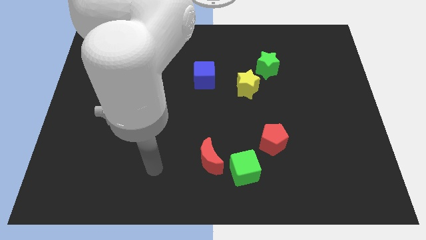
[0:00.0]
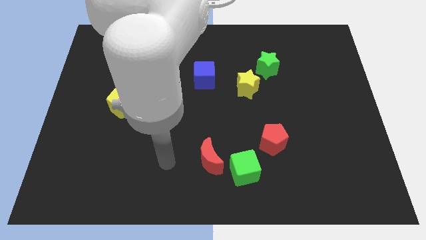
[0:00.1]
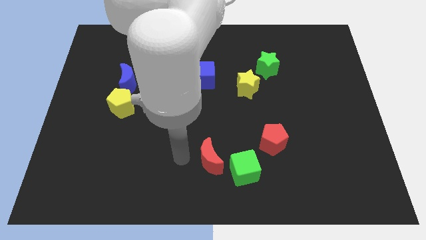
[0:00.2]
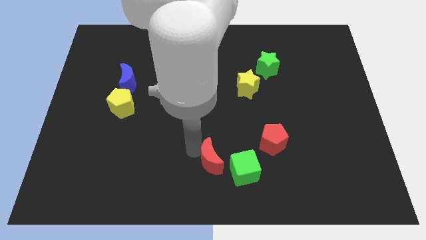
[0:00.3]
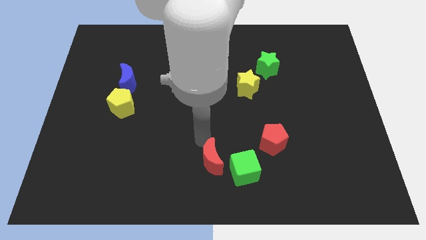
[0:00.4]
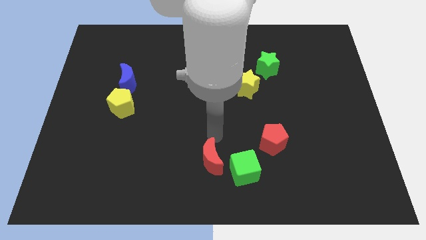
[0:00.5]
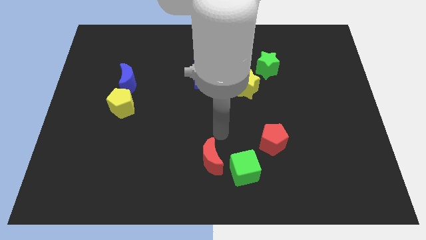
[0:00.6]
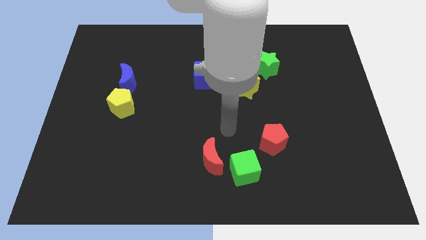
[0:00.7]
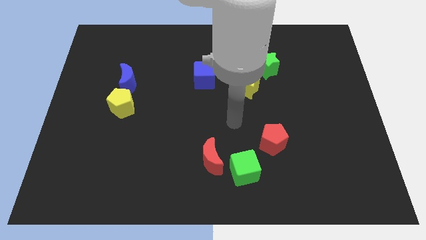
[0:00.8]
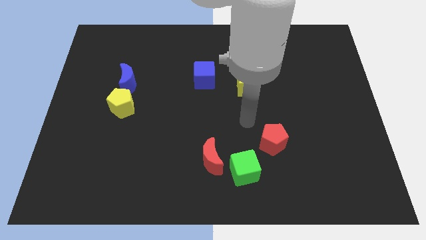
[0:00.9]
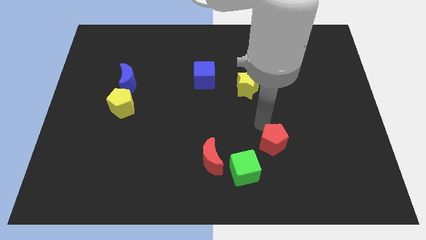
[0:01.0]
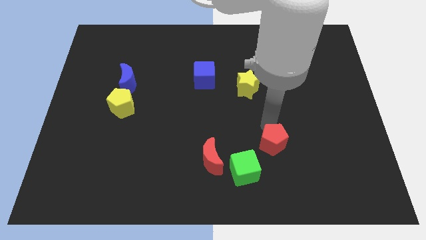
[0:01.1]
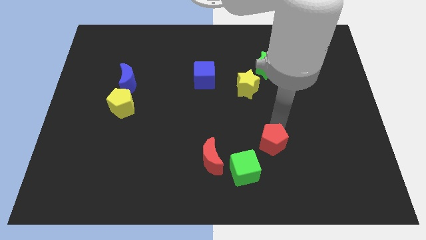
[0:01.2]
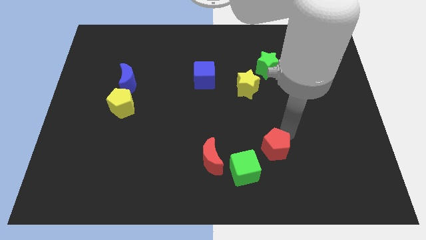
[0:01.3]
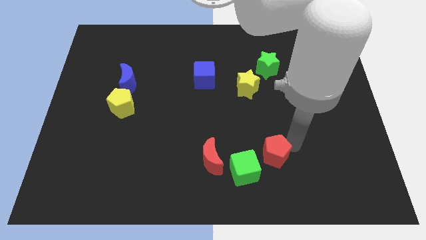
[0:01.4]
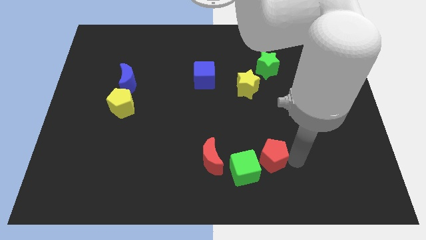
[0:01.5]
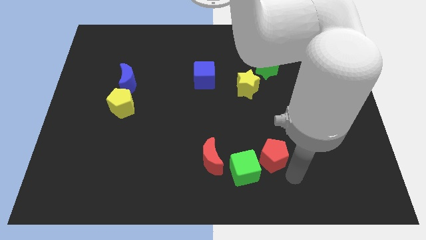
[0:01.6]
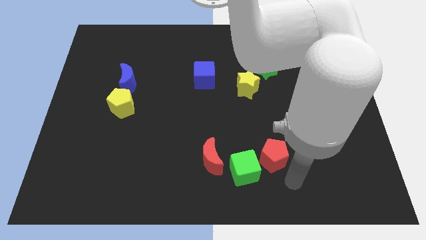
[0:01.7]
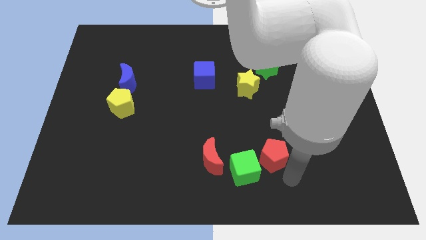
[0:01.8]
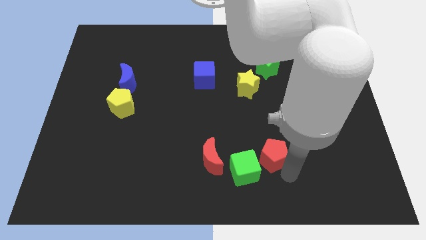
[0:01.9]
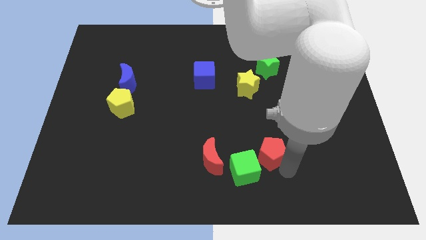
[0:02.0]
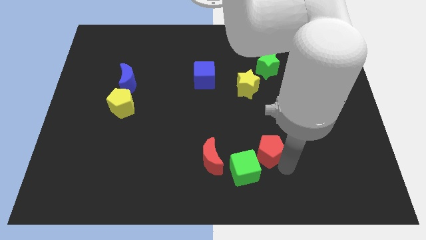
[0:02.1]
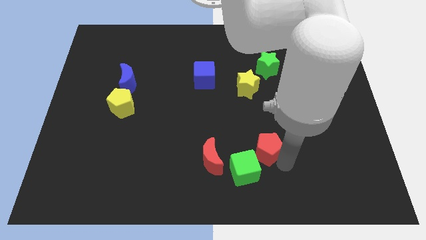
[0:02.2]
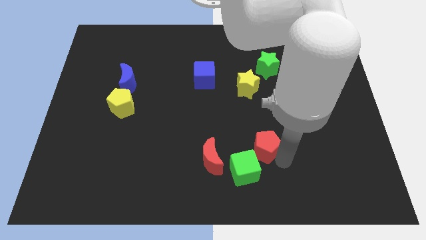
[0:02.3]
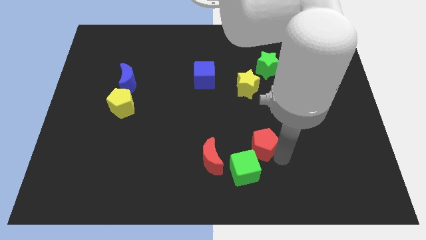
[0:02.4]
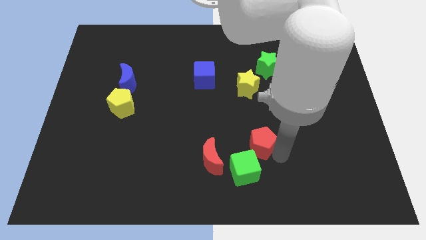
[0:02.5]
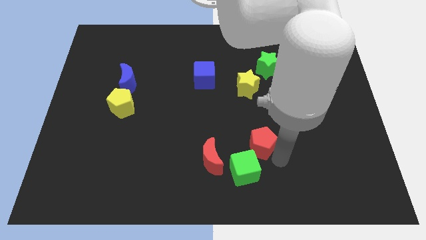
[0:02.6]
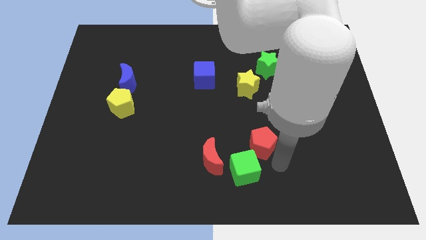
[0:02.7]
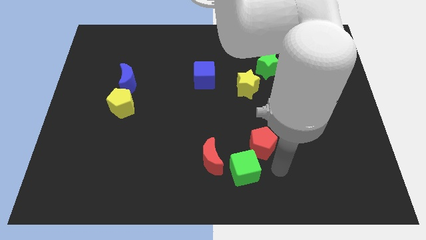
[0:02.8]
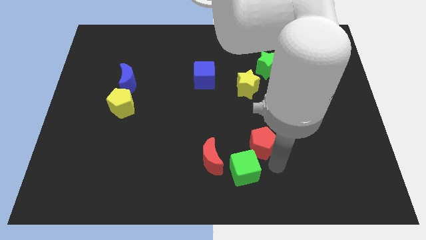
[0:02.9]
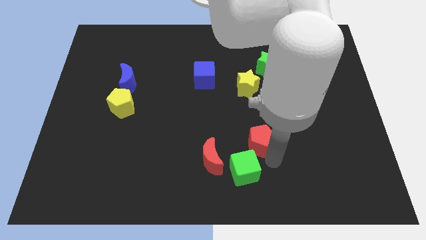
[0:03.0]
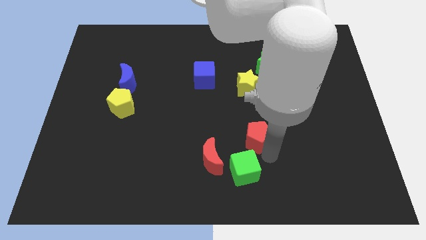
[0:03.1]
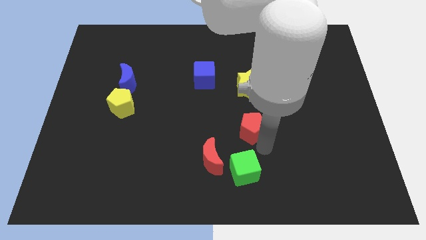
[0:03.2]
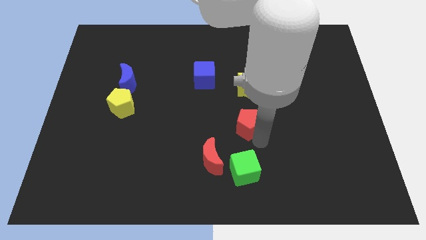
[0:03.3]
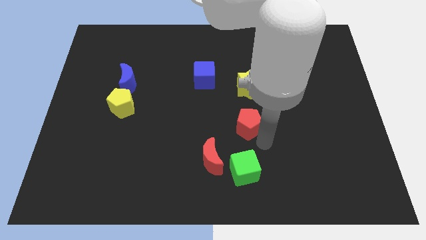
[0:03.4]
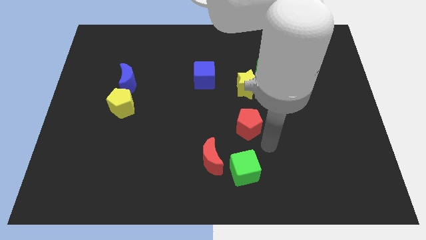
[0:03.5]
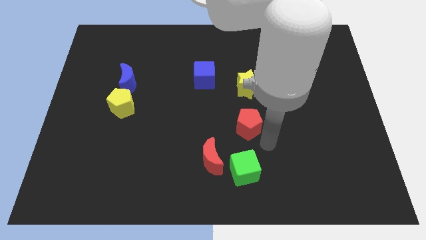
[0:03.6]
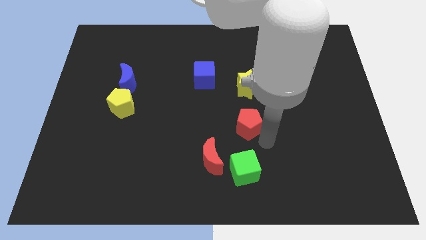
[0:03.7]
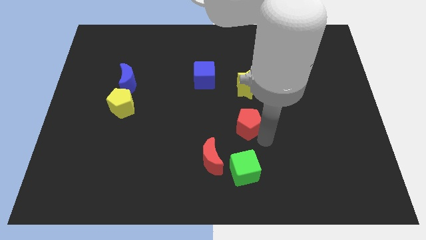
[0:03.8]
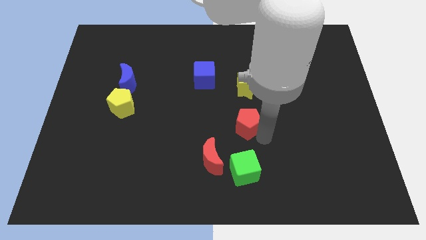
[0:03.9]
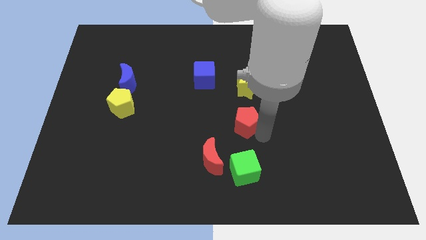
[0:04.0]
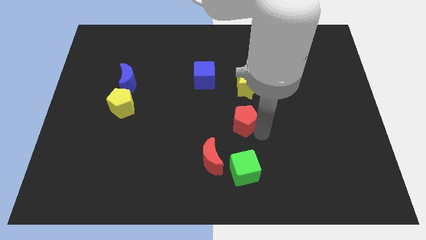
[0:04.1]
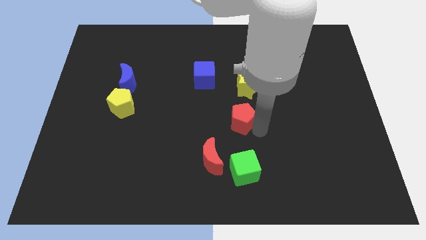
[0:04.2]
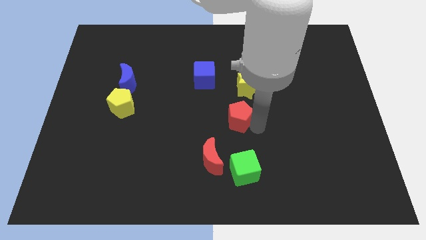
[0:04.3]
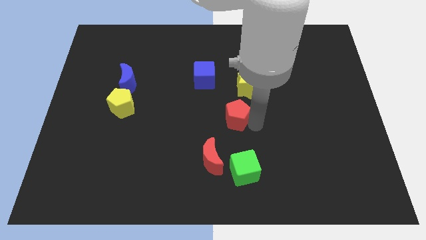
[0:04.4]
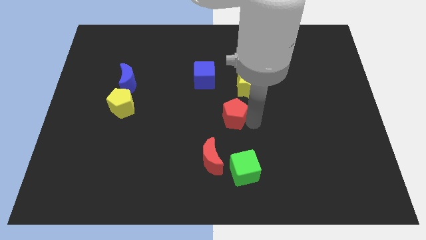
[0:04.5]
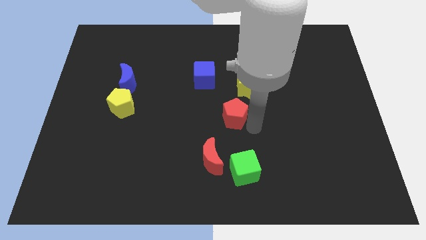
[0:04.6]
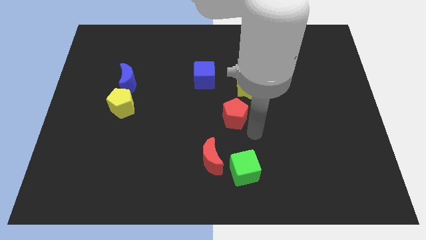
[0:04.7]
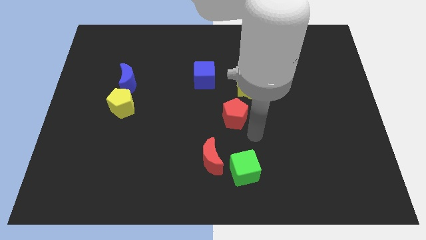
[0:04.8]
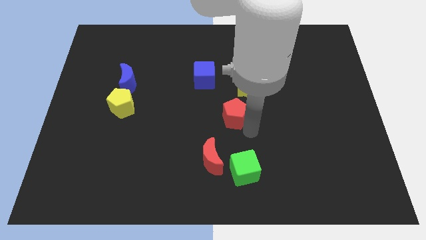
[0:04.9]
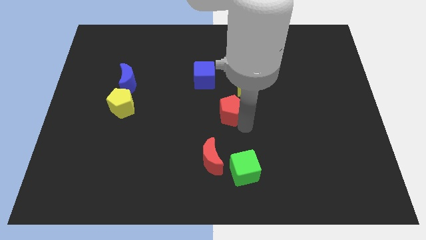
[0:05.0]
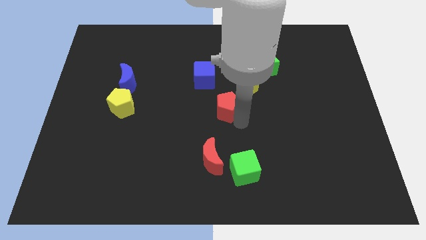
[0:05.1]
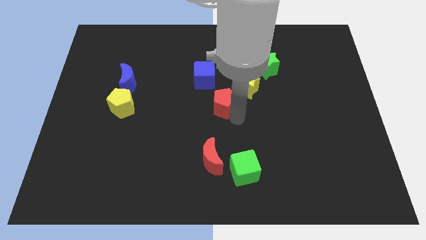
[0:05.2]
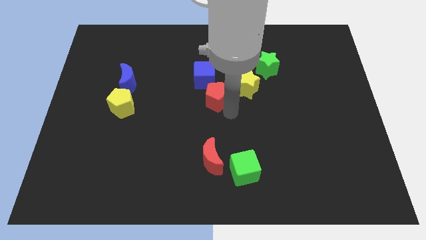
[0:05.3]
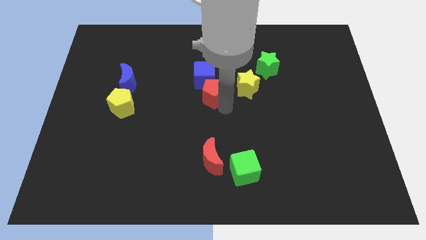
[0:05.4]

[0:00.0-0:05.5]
slide the red pentagon next to the blue cube

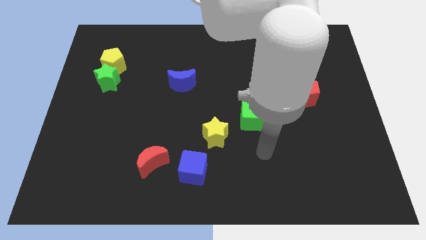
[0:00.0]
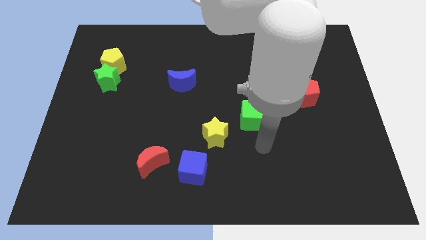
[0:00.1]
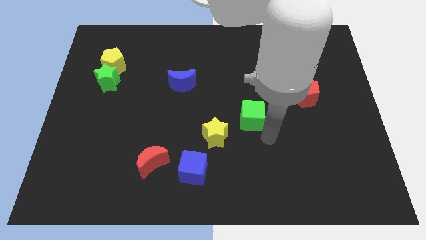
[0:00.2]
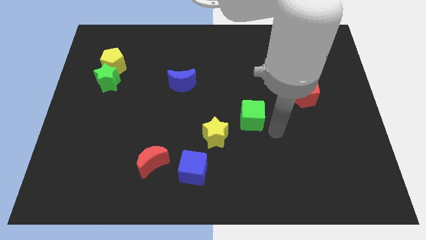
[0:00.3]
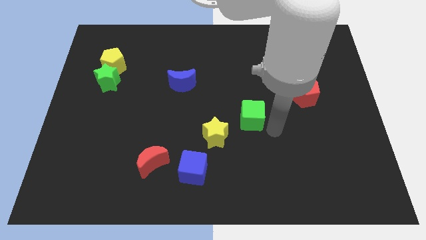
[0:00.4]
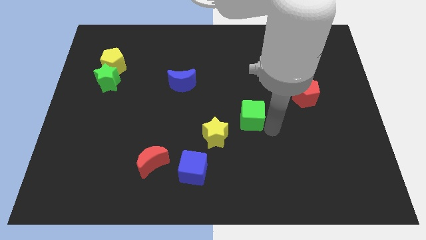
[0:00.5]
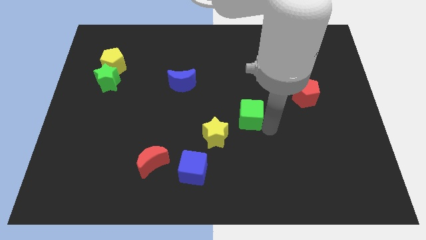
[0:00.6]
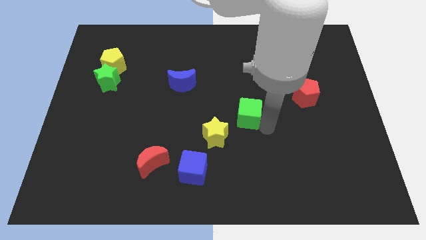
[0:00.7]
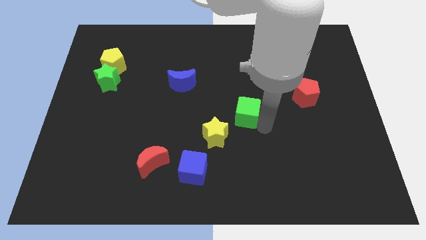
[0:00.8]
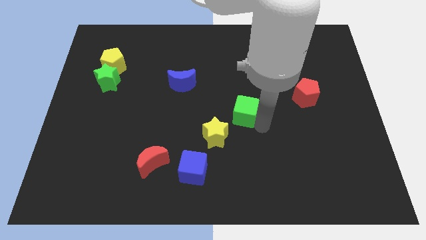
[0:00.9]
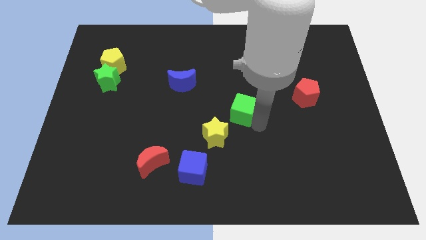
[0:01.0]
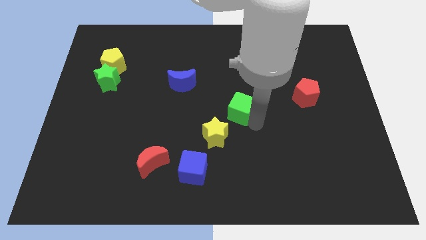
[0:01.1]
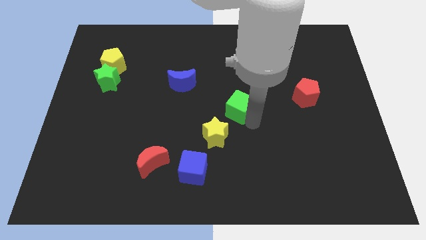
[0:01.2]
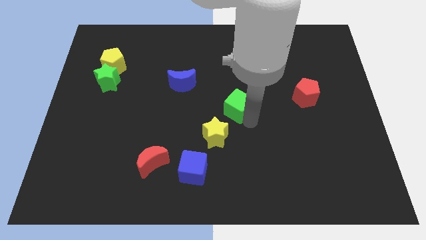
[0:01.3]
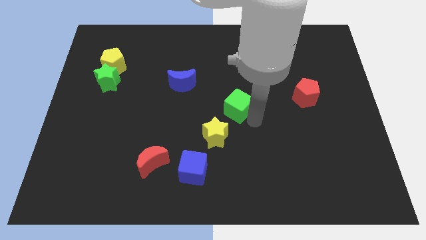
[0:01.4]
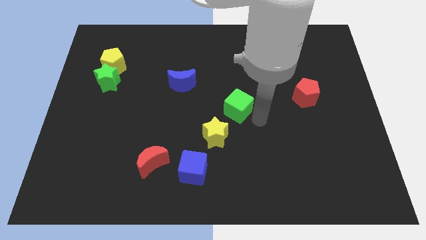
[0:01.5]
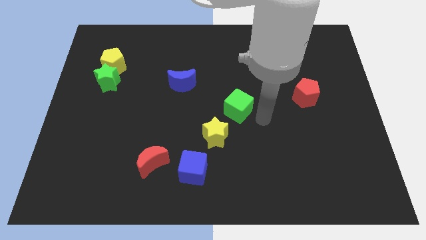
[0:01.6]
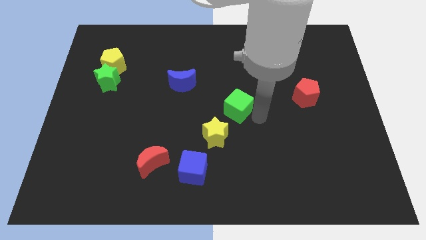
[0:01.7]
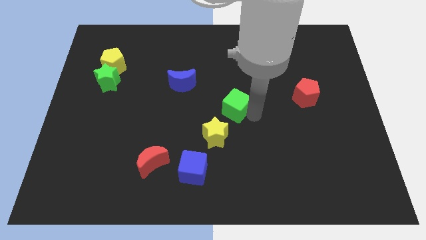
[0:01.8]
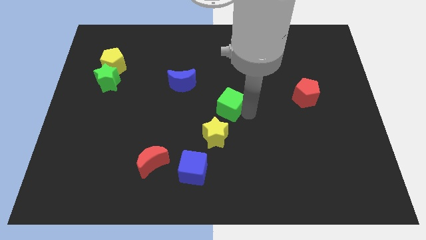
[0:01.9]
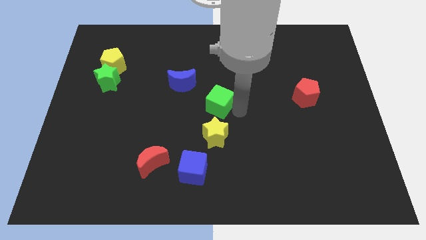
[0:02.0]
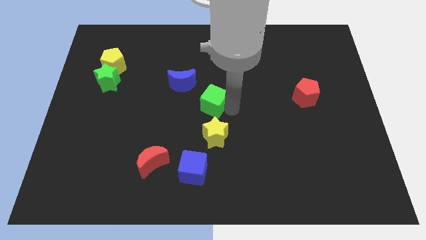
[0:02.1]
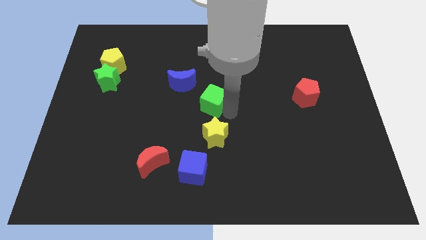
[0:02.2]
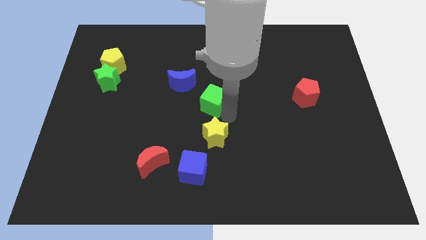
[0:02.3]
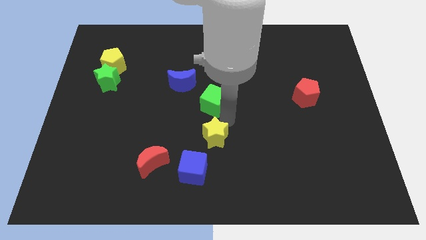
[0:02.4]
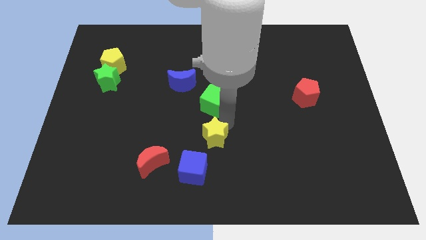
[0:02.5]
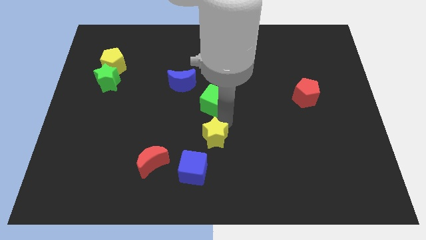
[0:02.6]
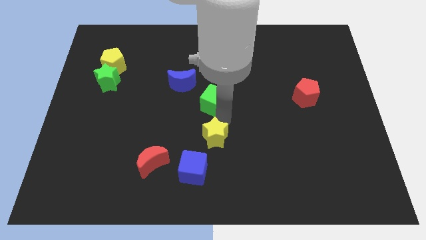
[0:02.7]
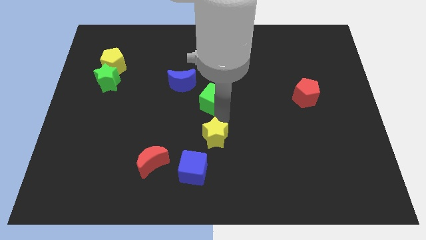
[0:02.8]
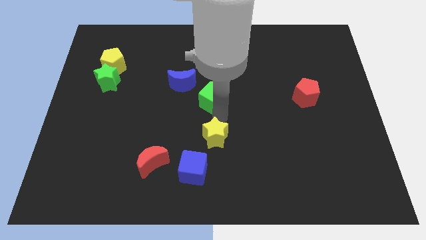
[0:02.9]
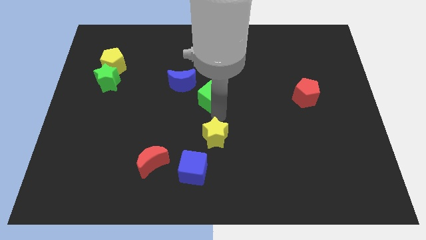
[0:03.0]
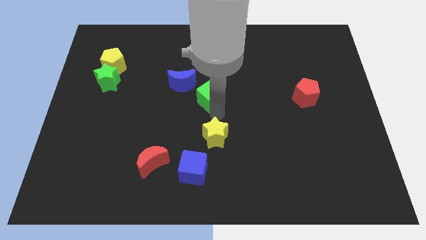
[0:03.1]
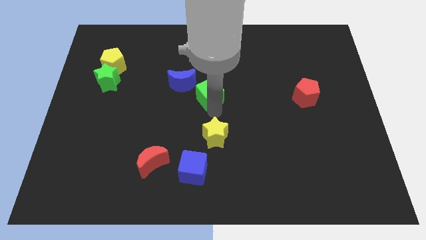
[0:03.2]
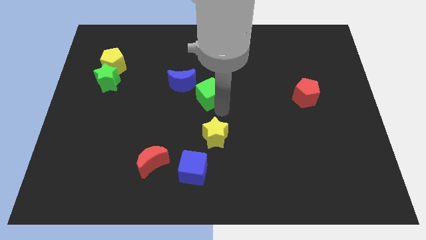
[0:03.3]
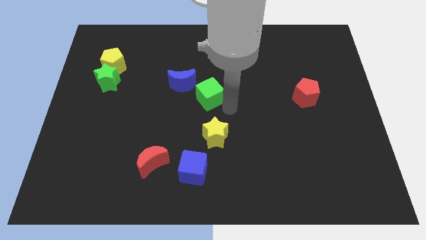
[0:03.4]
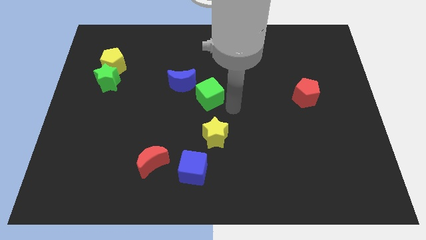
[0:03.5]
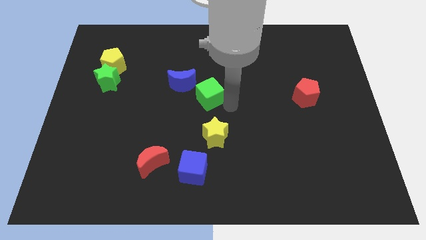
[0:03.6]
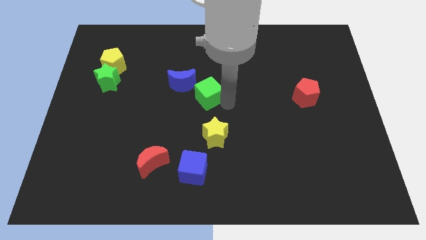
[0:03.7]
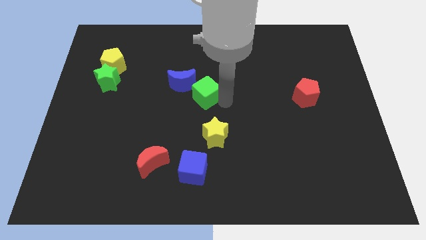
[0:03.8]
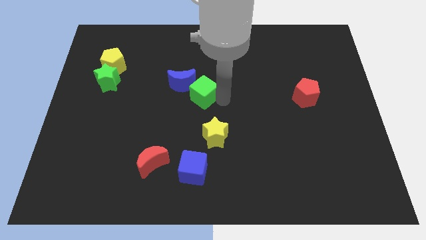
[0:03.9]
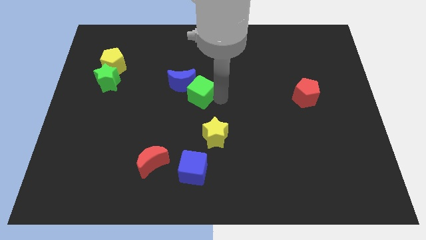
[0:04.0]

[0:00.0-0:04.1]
slide the green cube close to the blue moon
